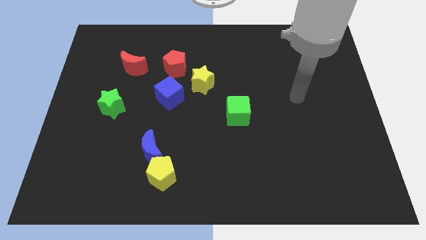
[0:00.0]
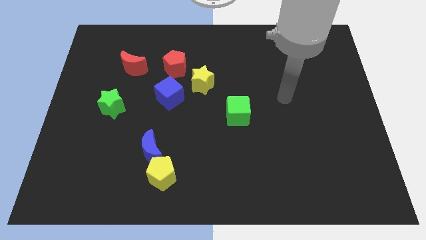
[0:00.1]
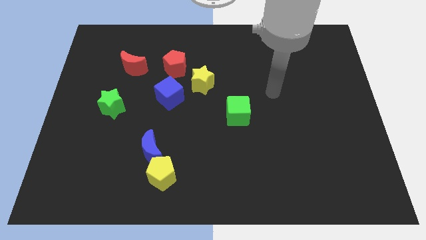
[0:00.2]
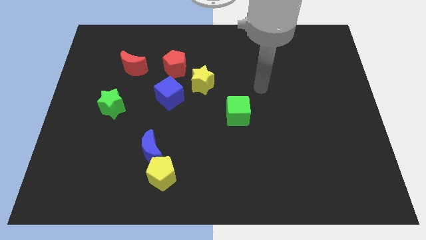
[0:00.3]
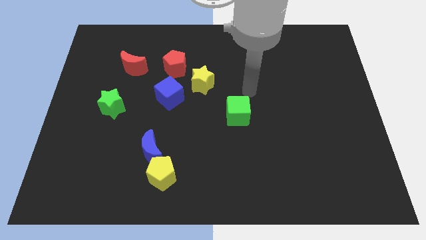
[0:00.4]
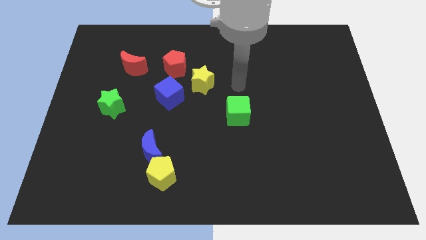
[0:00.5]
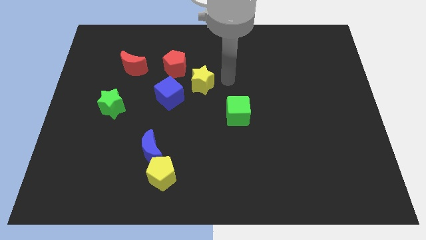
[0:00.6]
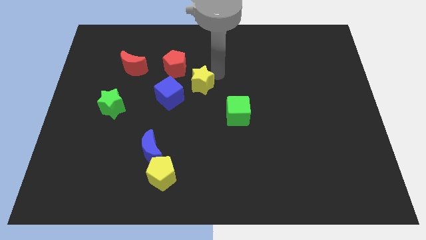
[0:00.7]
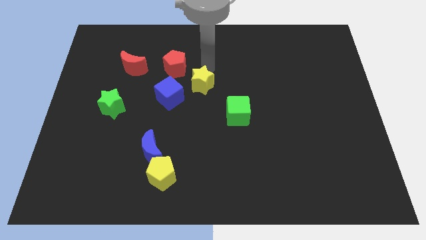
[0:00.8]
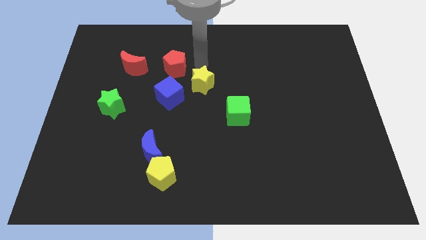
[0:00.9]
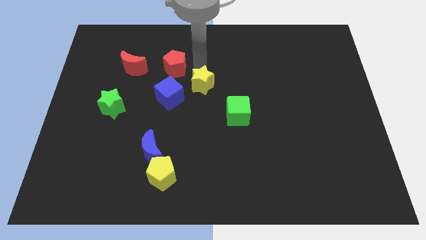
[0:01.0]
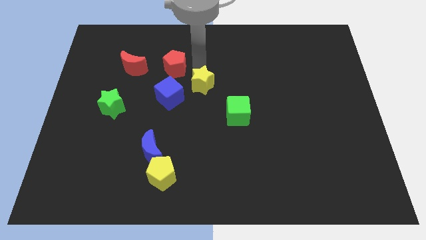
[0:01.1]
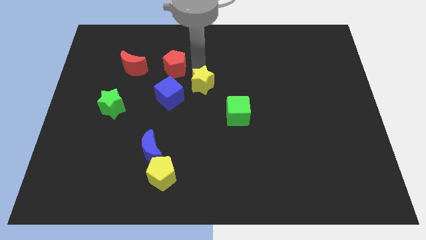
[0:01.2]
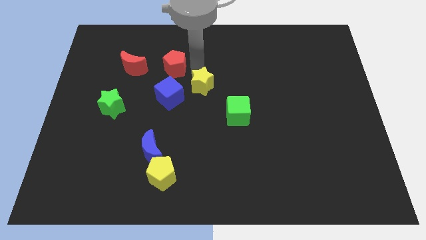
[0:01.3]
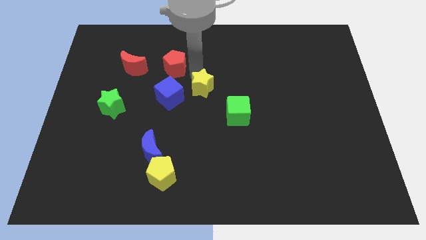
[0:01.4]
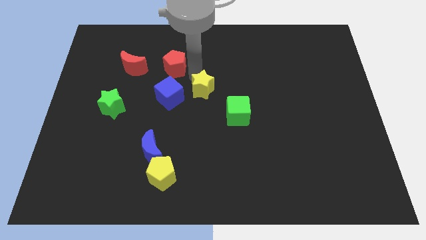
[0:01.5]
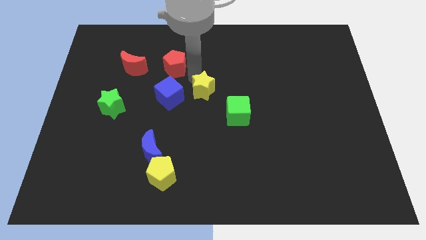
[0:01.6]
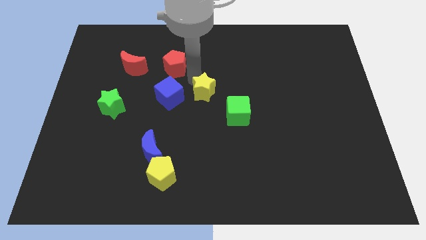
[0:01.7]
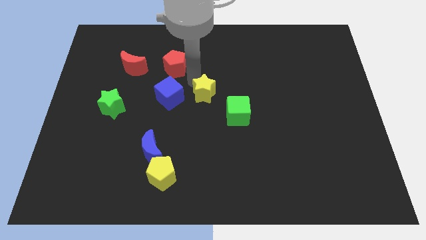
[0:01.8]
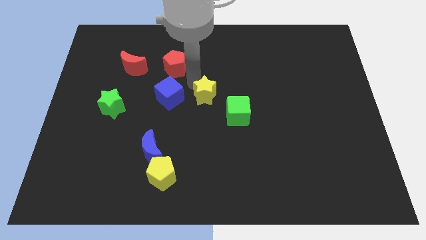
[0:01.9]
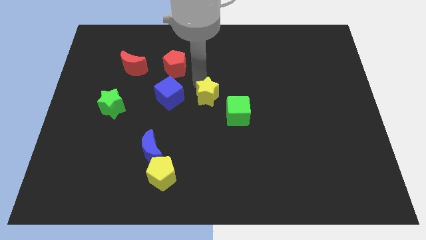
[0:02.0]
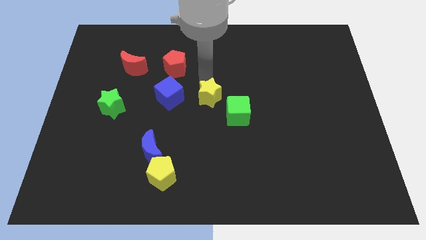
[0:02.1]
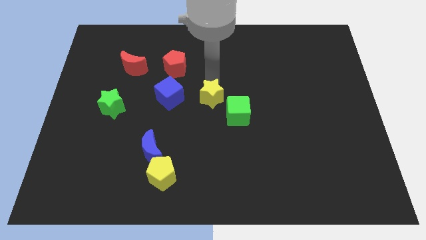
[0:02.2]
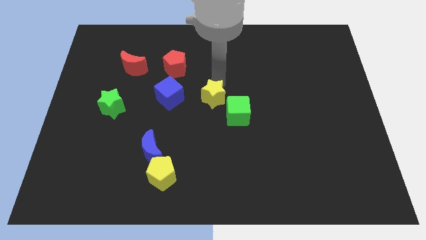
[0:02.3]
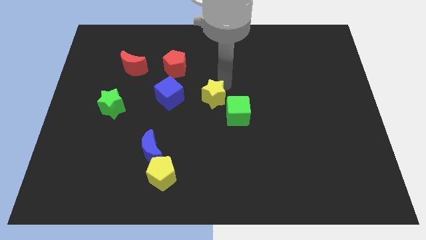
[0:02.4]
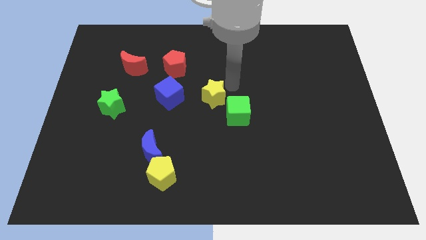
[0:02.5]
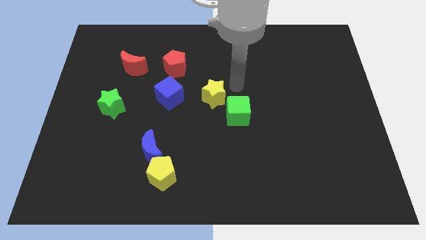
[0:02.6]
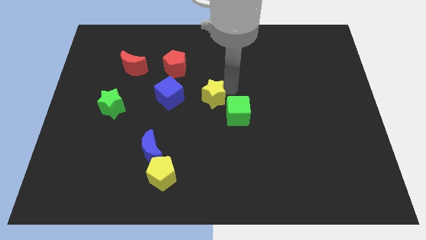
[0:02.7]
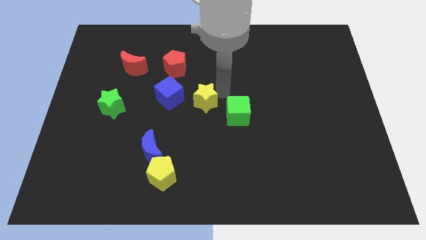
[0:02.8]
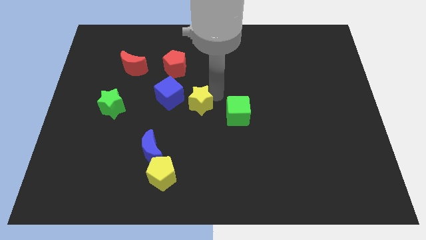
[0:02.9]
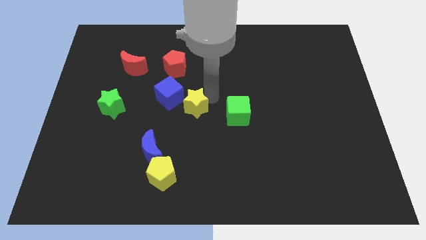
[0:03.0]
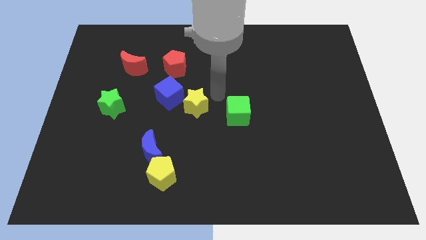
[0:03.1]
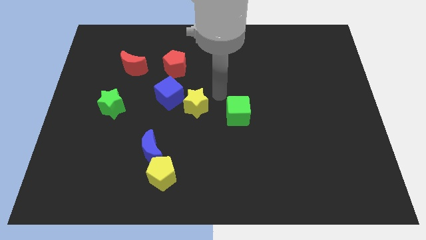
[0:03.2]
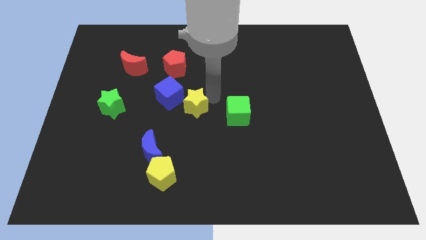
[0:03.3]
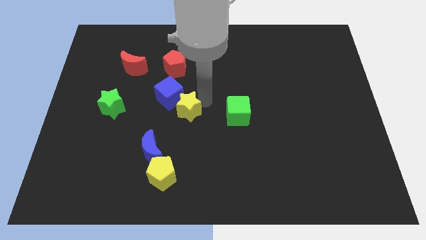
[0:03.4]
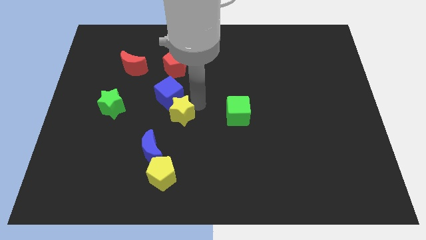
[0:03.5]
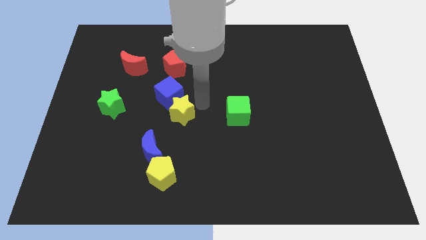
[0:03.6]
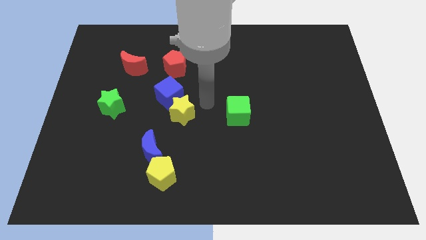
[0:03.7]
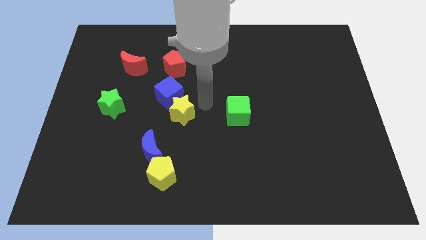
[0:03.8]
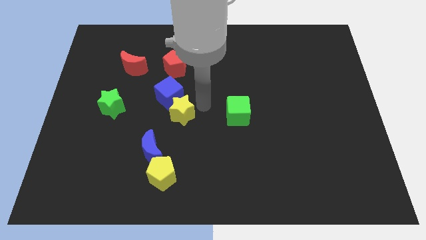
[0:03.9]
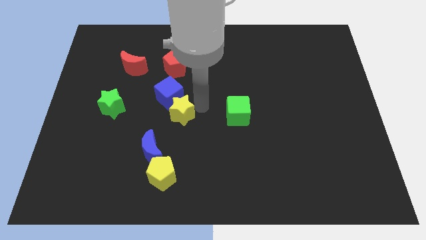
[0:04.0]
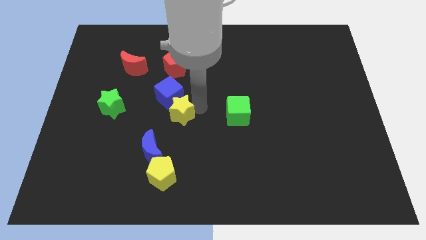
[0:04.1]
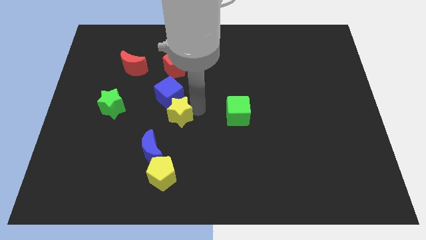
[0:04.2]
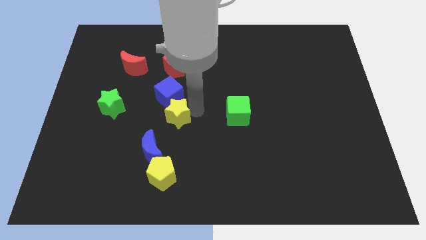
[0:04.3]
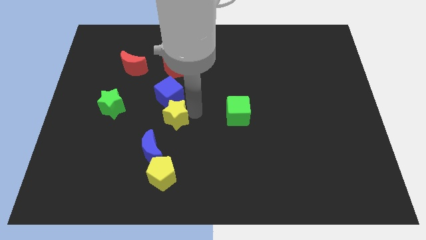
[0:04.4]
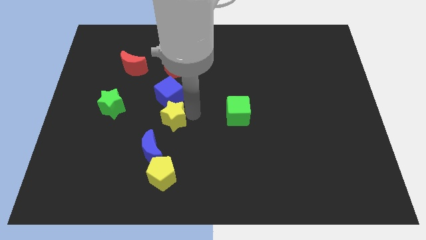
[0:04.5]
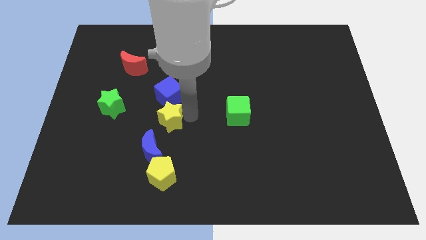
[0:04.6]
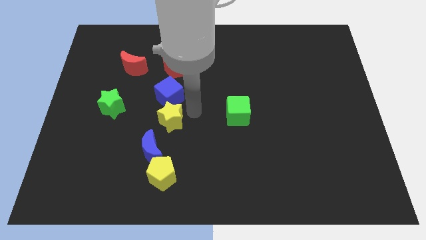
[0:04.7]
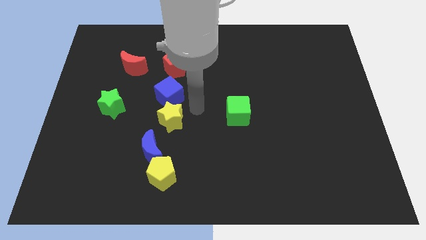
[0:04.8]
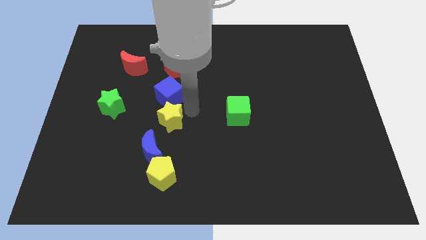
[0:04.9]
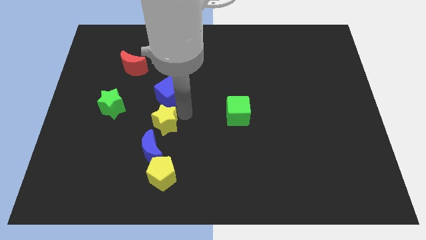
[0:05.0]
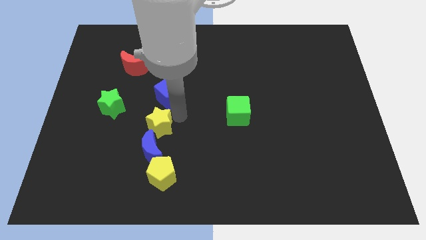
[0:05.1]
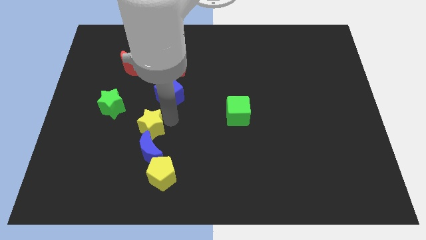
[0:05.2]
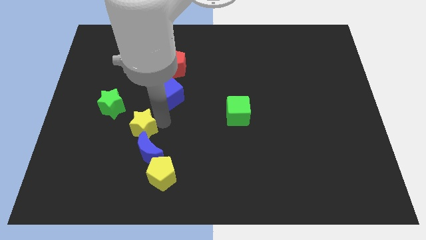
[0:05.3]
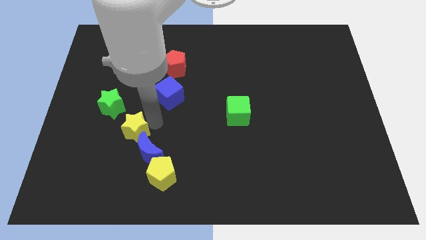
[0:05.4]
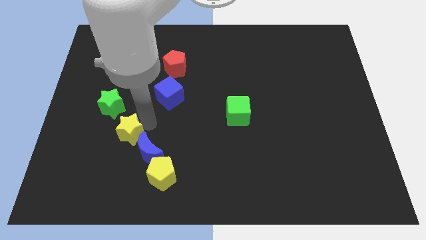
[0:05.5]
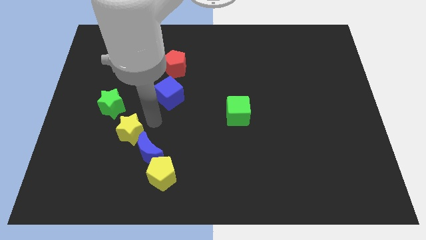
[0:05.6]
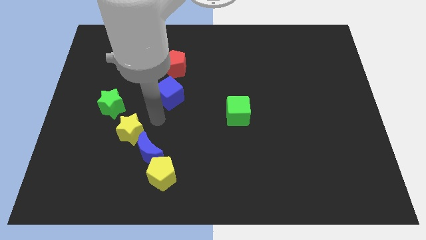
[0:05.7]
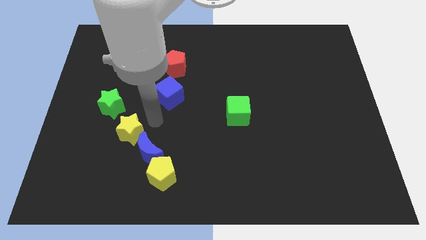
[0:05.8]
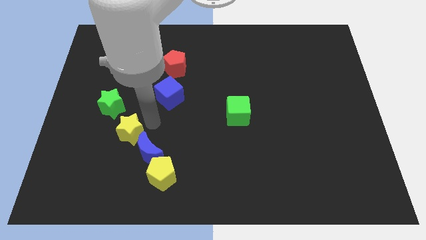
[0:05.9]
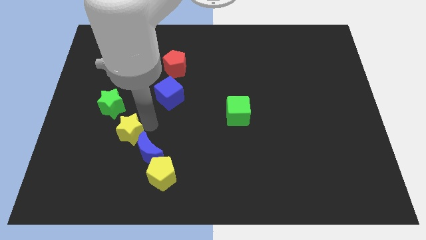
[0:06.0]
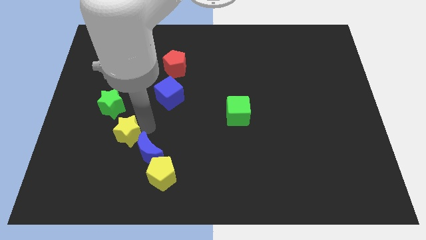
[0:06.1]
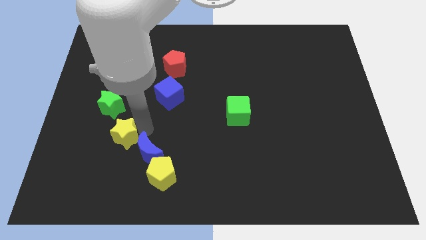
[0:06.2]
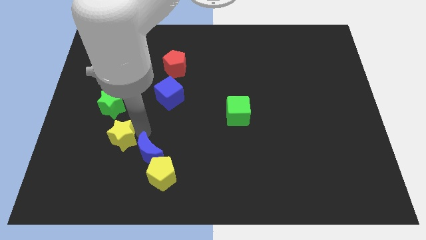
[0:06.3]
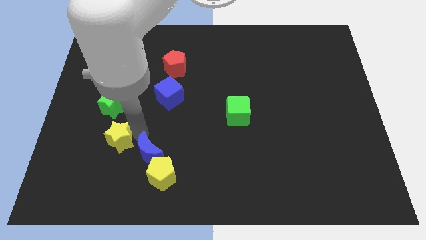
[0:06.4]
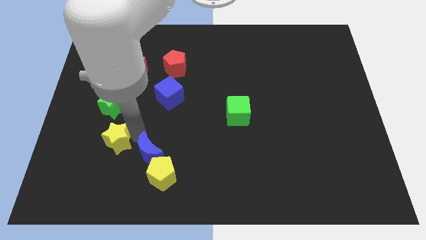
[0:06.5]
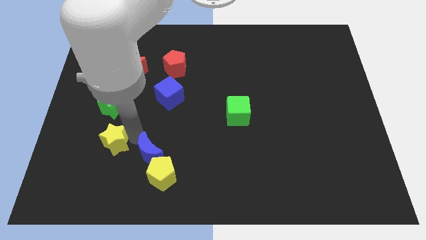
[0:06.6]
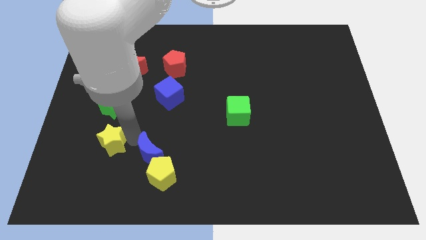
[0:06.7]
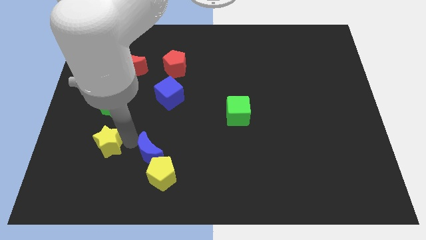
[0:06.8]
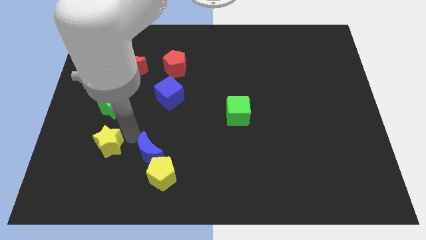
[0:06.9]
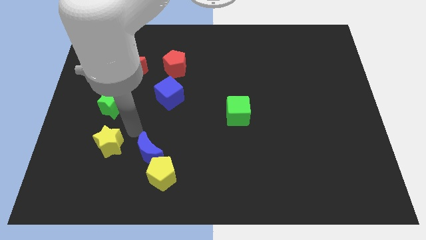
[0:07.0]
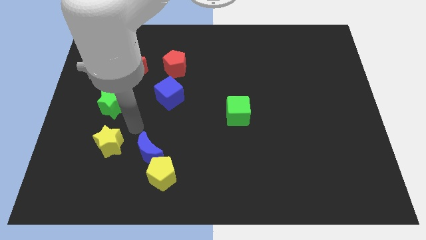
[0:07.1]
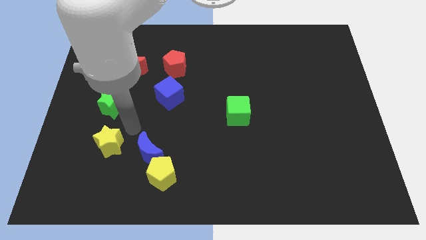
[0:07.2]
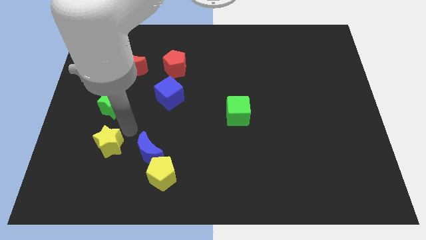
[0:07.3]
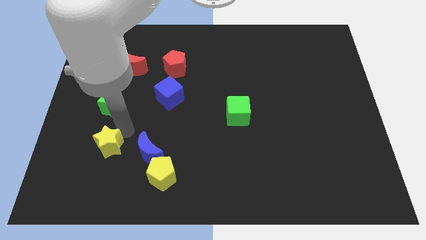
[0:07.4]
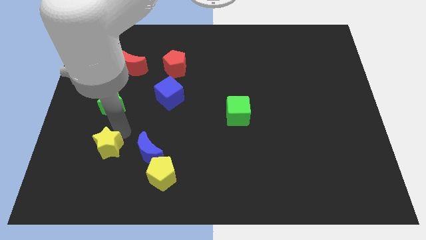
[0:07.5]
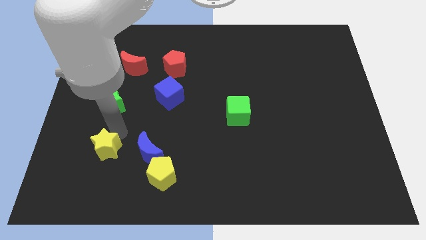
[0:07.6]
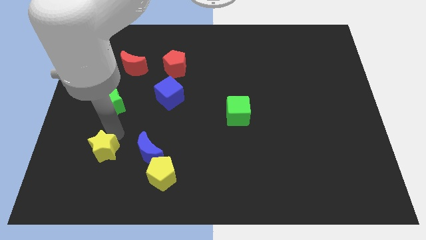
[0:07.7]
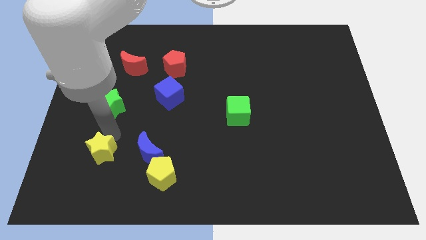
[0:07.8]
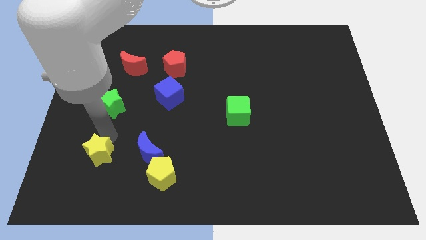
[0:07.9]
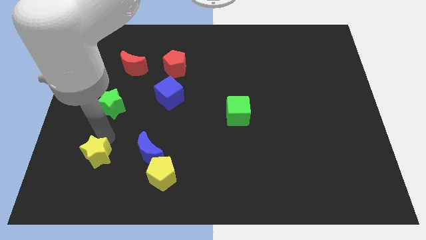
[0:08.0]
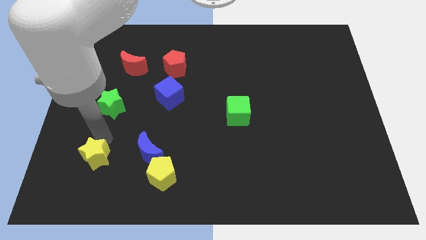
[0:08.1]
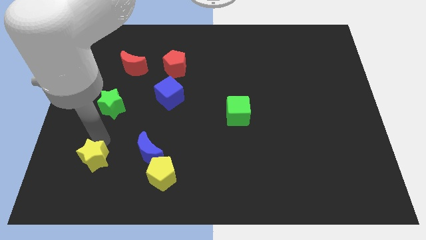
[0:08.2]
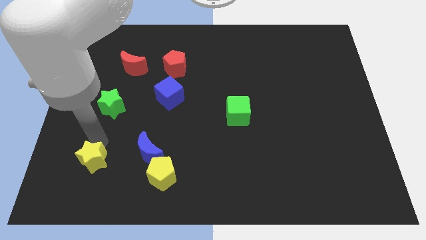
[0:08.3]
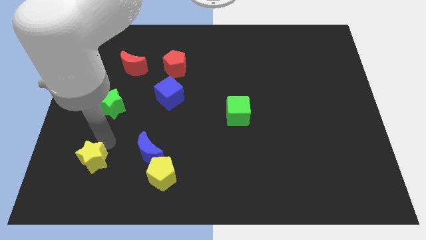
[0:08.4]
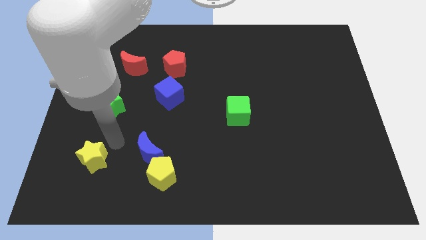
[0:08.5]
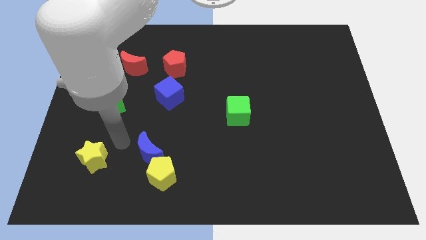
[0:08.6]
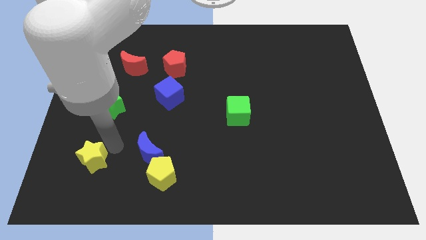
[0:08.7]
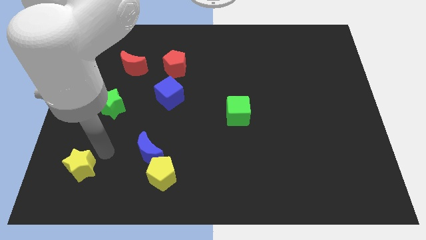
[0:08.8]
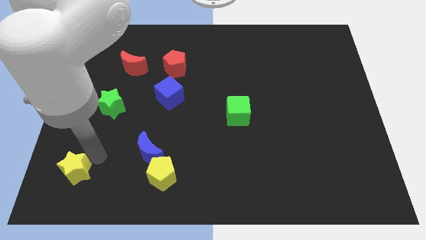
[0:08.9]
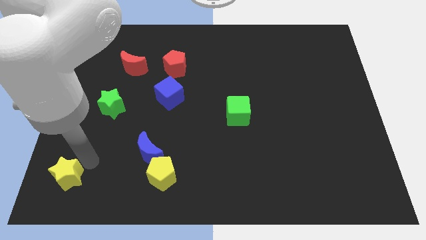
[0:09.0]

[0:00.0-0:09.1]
put the yellow star to the bottom left
